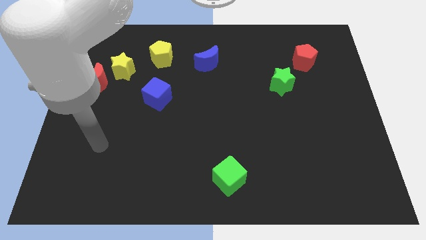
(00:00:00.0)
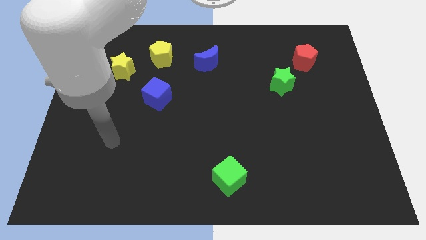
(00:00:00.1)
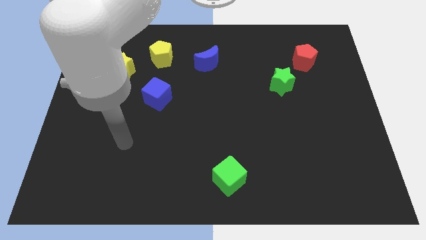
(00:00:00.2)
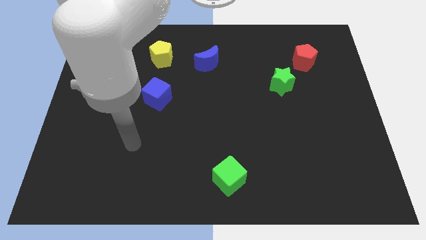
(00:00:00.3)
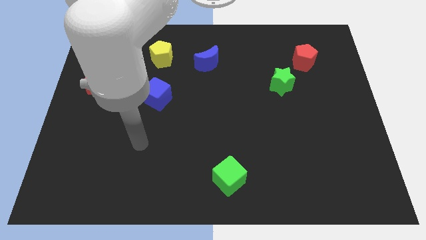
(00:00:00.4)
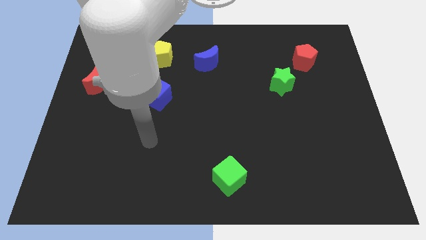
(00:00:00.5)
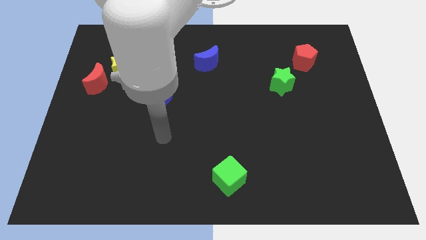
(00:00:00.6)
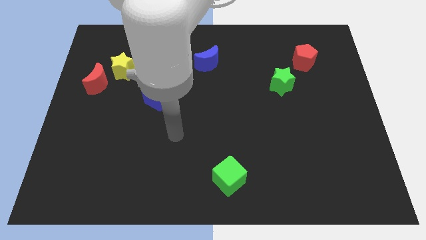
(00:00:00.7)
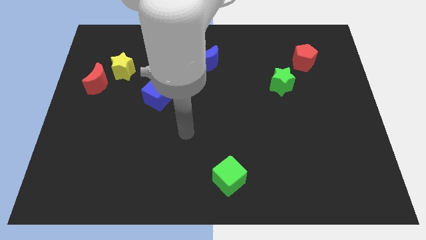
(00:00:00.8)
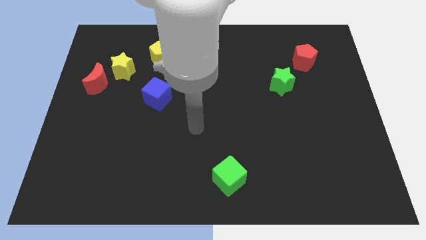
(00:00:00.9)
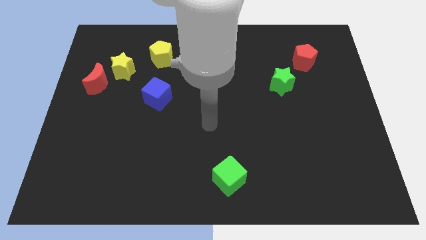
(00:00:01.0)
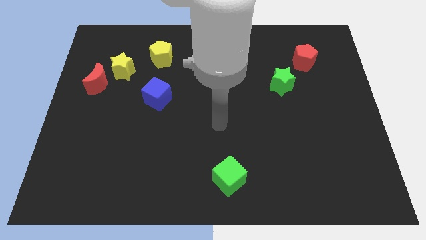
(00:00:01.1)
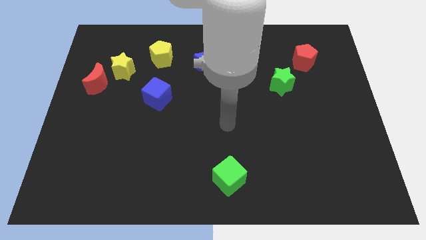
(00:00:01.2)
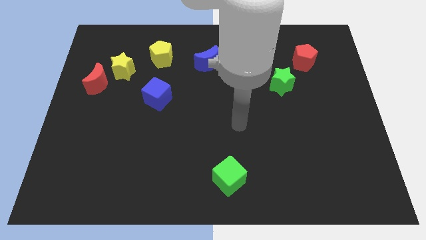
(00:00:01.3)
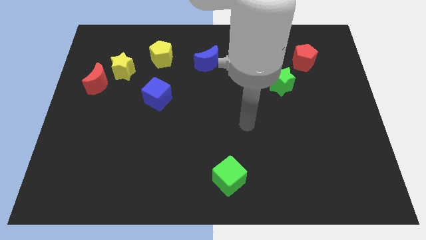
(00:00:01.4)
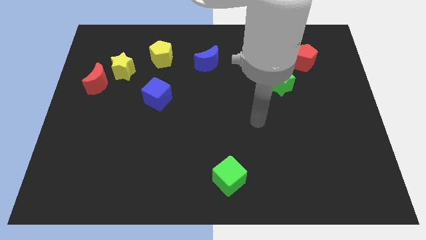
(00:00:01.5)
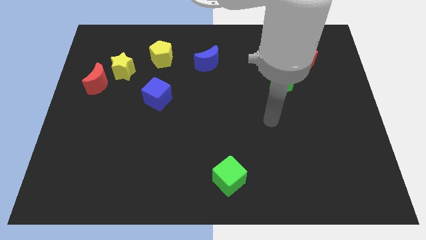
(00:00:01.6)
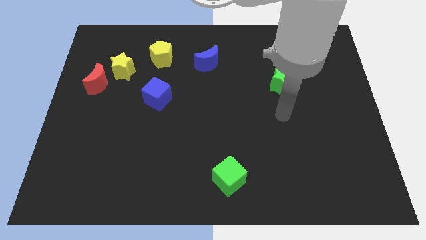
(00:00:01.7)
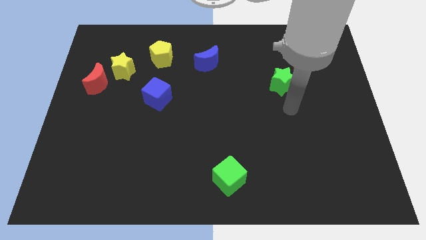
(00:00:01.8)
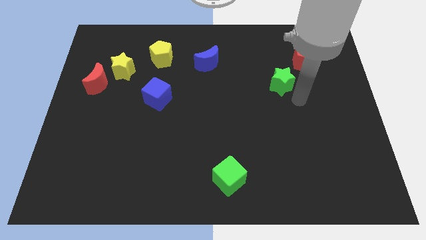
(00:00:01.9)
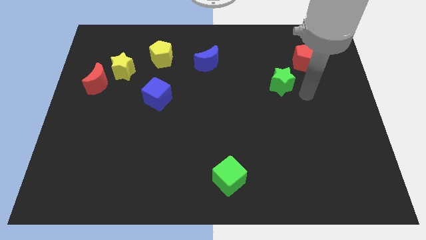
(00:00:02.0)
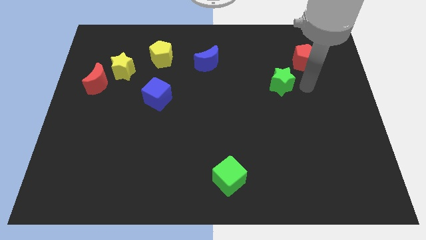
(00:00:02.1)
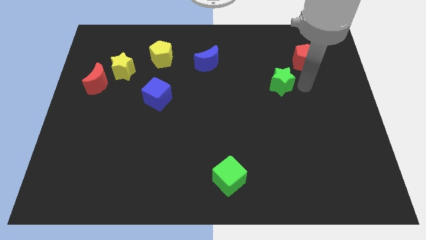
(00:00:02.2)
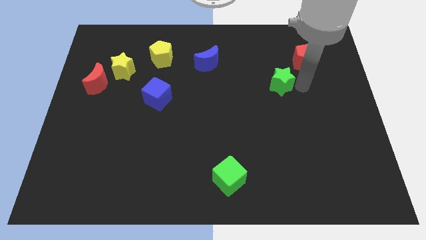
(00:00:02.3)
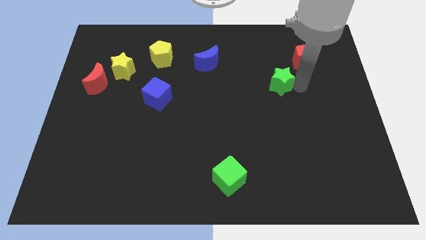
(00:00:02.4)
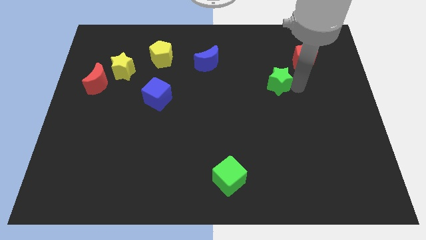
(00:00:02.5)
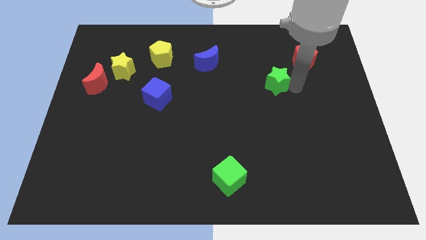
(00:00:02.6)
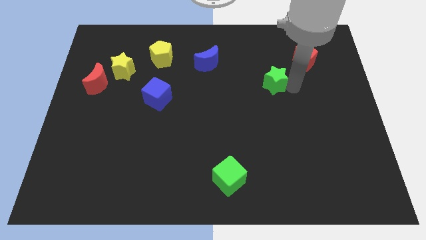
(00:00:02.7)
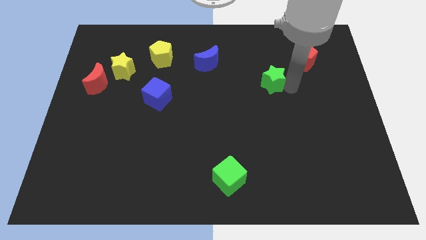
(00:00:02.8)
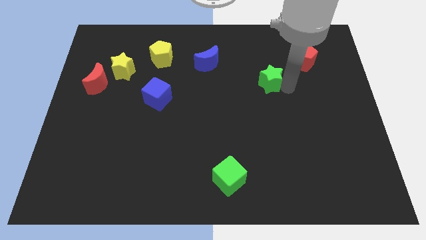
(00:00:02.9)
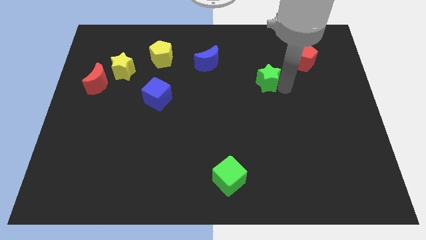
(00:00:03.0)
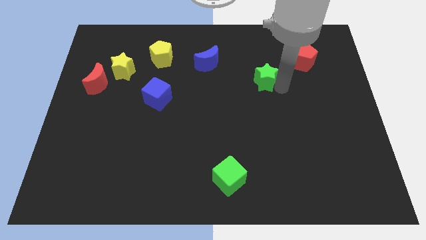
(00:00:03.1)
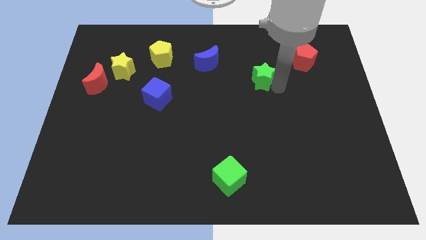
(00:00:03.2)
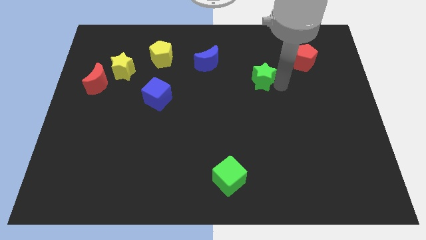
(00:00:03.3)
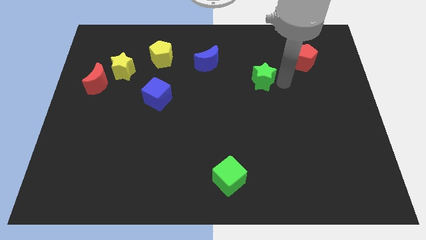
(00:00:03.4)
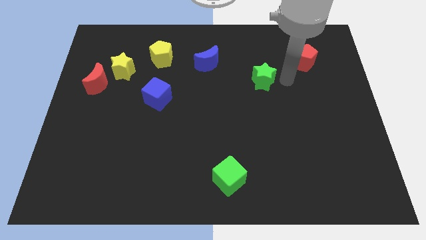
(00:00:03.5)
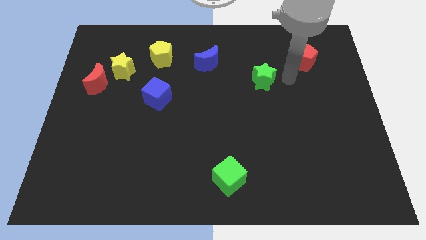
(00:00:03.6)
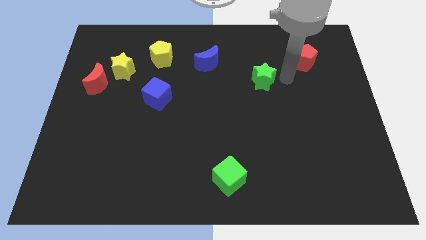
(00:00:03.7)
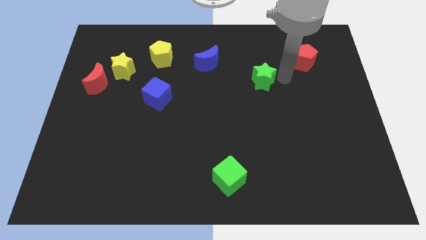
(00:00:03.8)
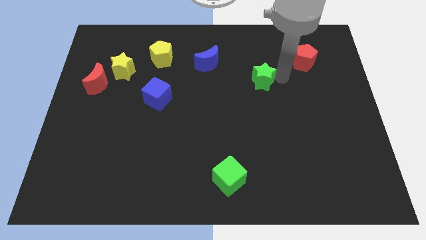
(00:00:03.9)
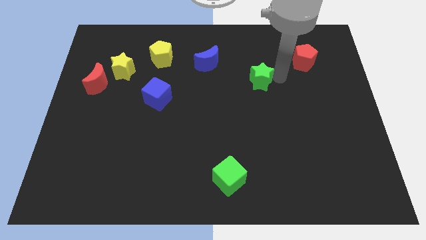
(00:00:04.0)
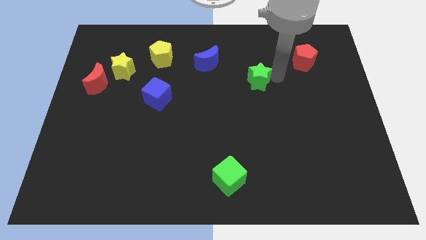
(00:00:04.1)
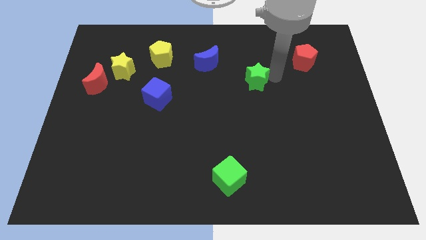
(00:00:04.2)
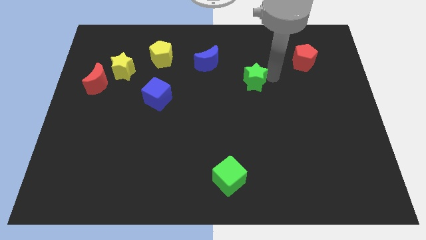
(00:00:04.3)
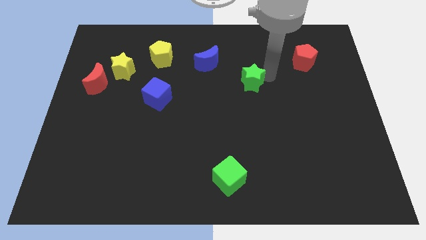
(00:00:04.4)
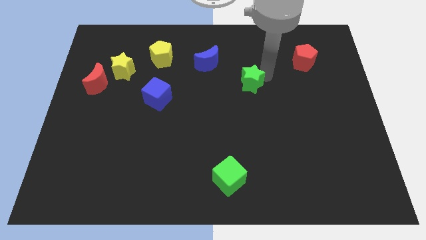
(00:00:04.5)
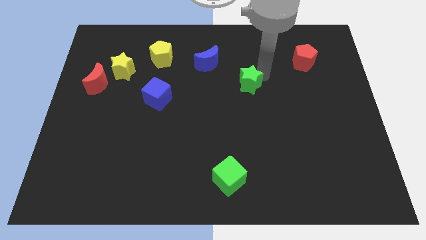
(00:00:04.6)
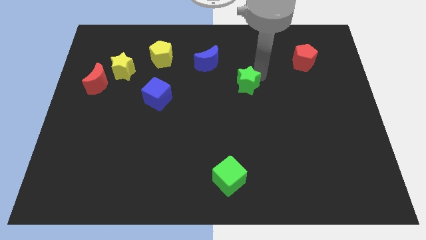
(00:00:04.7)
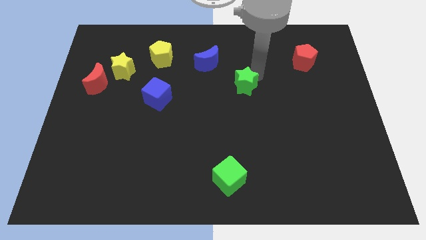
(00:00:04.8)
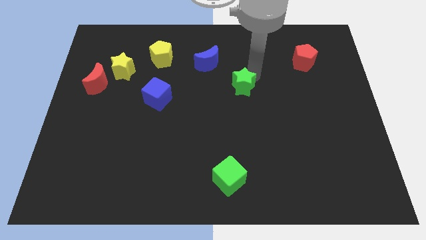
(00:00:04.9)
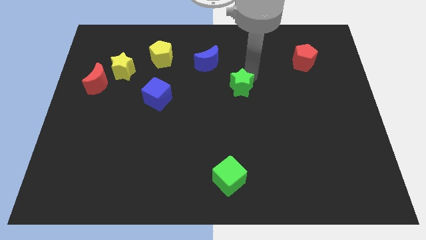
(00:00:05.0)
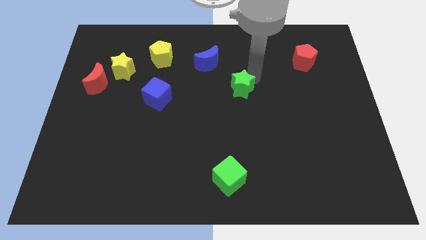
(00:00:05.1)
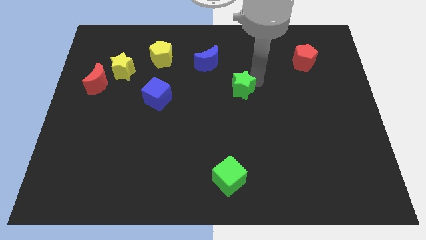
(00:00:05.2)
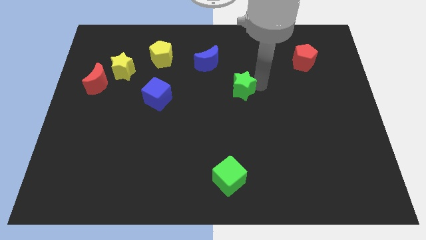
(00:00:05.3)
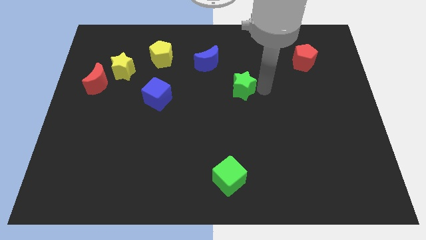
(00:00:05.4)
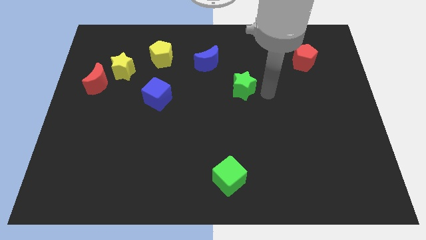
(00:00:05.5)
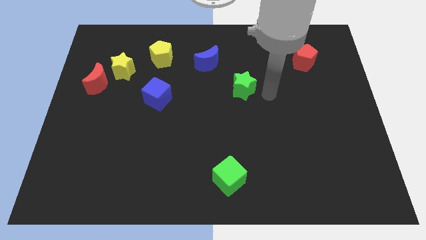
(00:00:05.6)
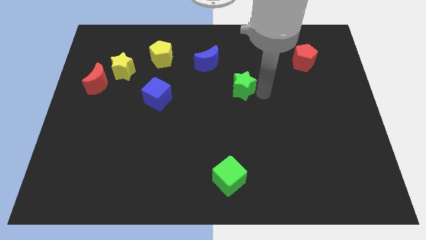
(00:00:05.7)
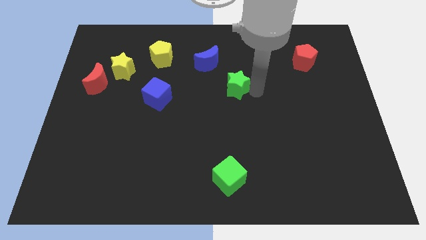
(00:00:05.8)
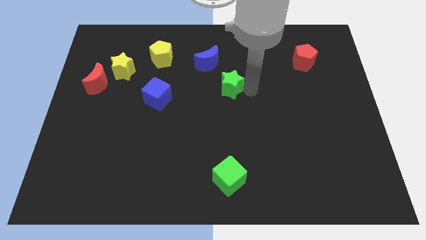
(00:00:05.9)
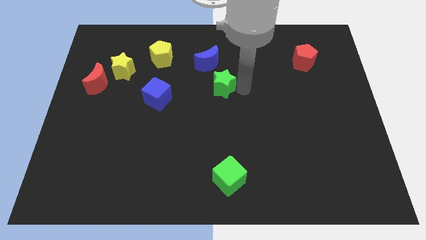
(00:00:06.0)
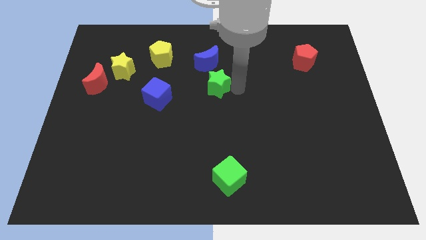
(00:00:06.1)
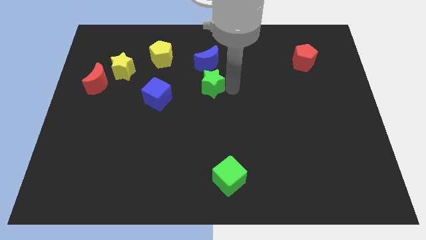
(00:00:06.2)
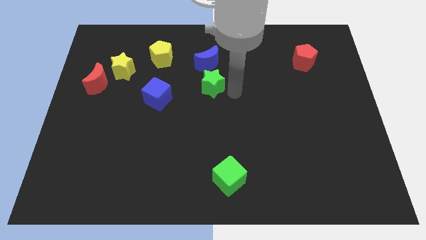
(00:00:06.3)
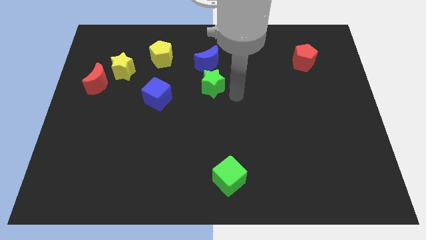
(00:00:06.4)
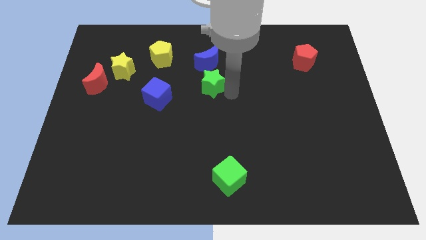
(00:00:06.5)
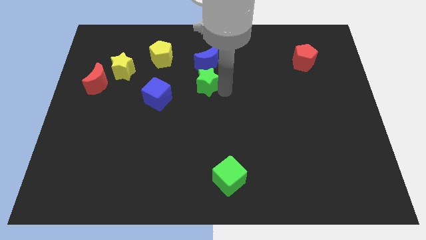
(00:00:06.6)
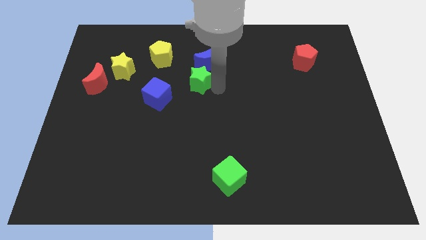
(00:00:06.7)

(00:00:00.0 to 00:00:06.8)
slide the green star to the left

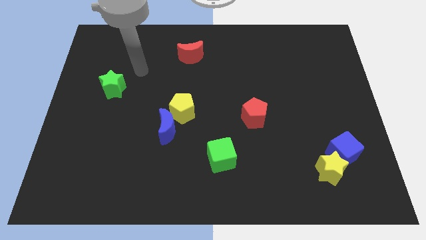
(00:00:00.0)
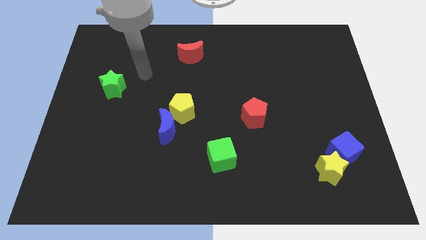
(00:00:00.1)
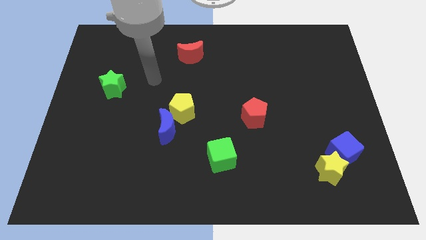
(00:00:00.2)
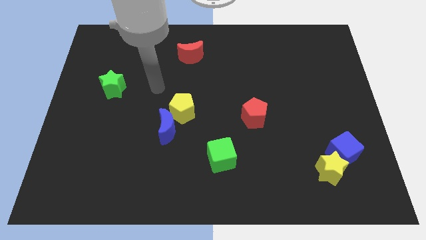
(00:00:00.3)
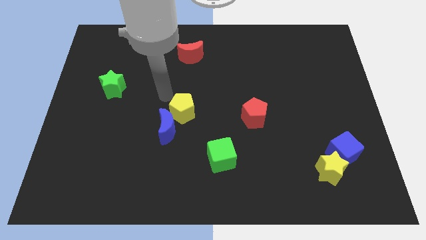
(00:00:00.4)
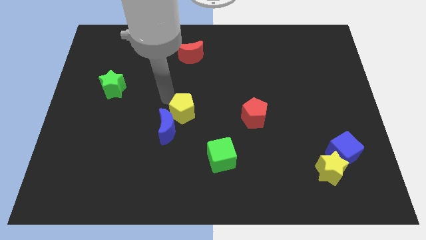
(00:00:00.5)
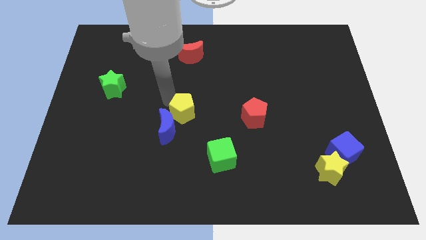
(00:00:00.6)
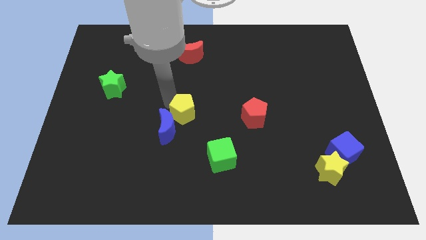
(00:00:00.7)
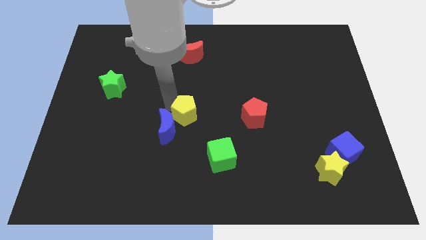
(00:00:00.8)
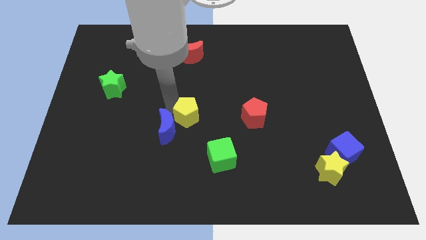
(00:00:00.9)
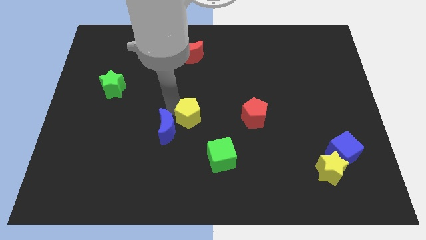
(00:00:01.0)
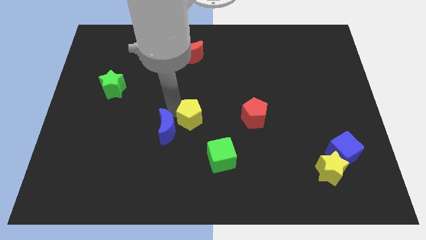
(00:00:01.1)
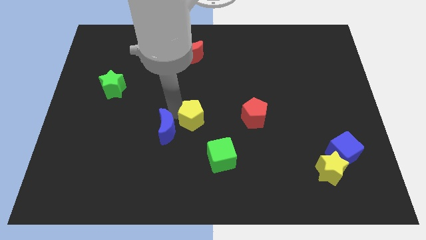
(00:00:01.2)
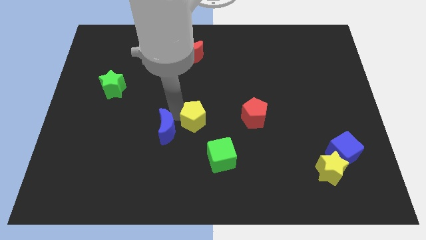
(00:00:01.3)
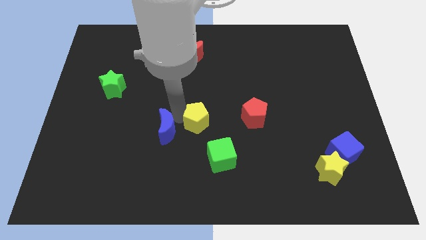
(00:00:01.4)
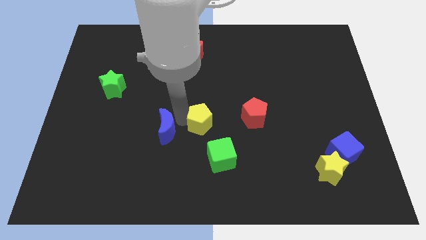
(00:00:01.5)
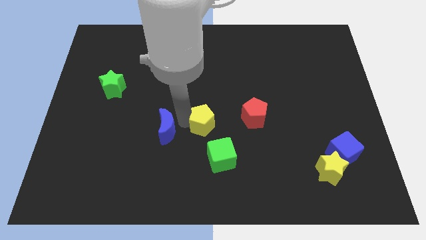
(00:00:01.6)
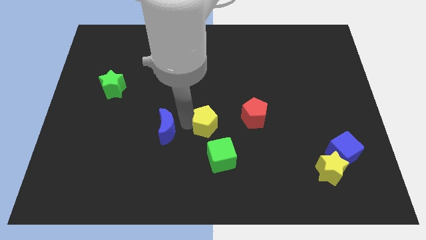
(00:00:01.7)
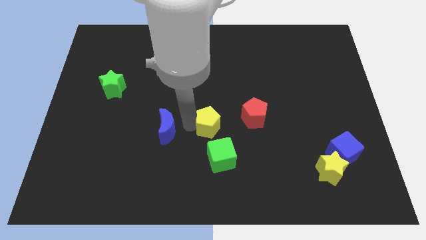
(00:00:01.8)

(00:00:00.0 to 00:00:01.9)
move the yellow pentagon a little bit downwards and then to the right
